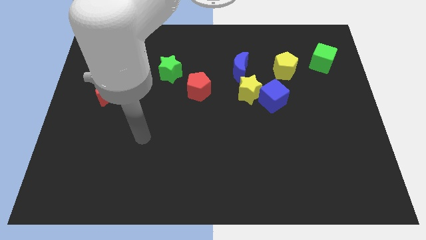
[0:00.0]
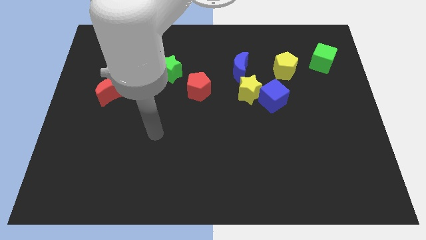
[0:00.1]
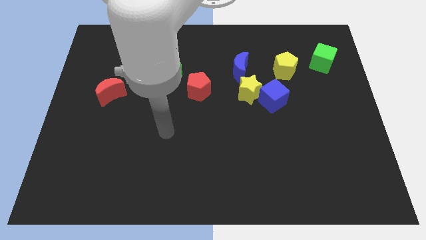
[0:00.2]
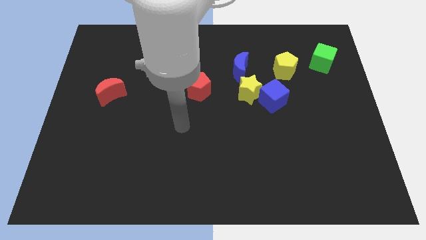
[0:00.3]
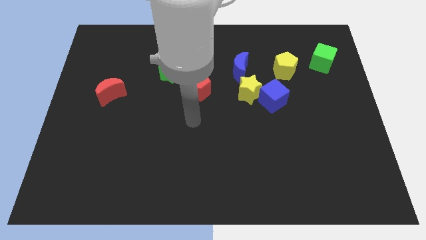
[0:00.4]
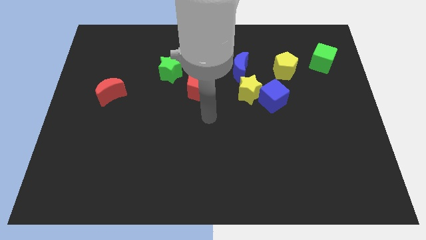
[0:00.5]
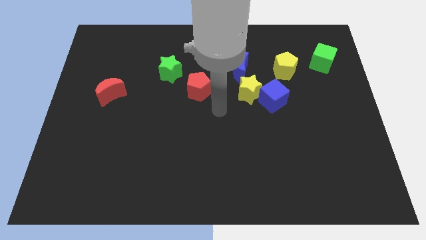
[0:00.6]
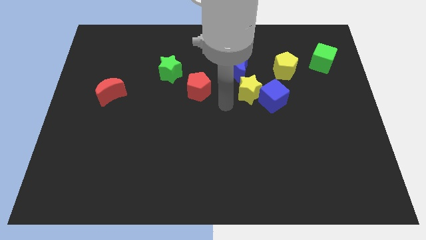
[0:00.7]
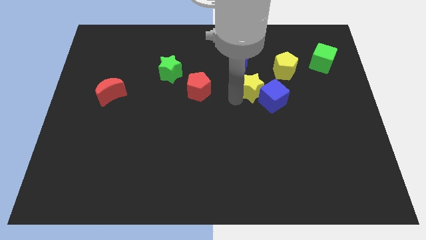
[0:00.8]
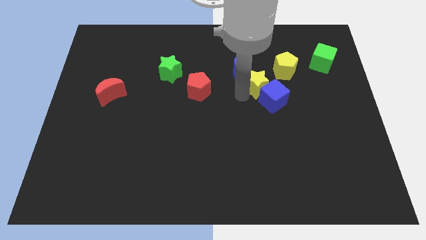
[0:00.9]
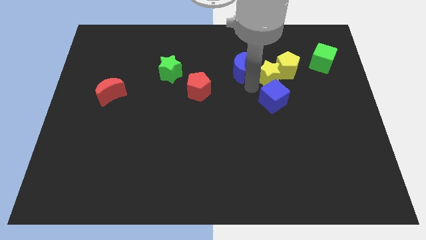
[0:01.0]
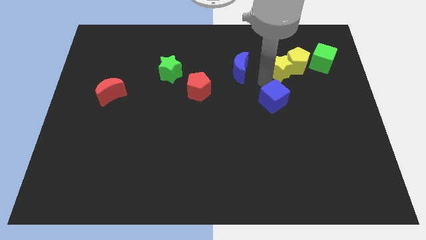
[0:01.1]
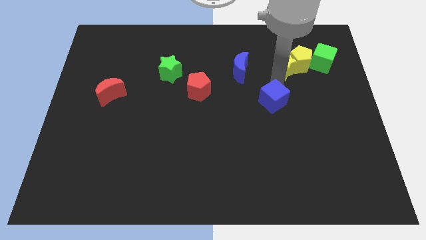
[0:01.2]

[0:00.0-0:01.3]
pull the blue cube apart from the yellow star

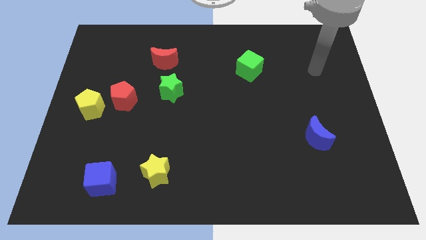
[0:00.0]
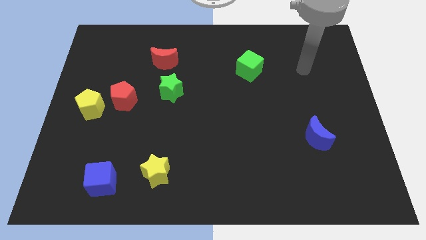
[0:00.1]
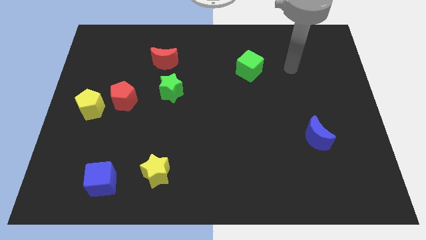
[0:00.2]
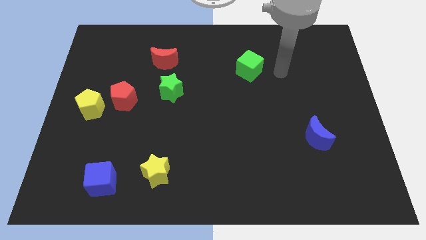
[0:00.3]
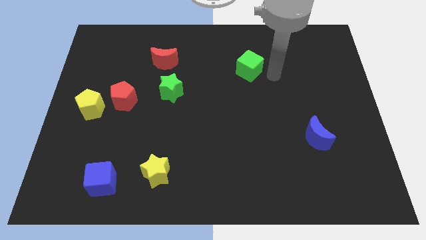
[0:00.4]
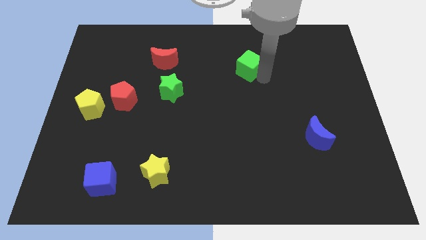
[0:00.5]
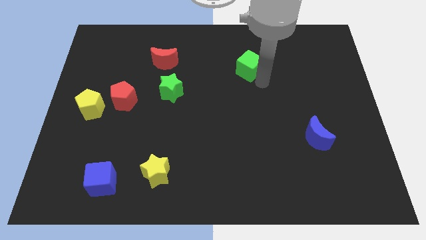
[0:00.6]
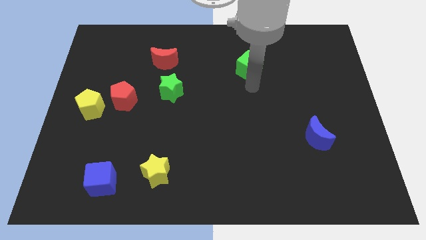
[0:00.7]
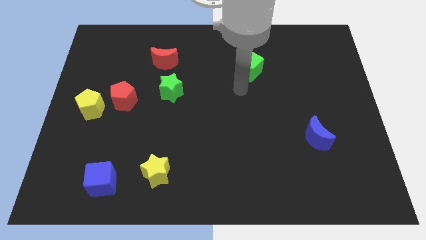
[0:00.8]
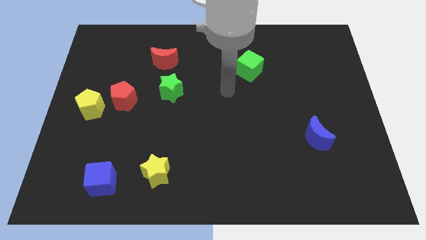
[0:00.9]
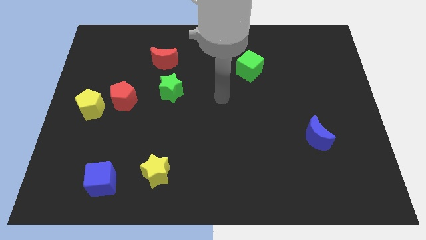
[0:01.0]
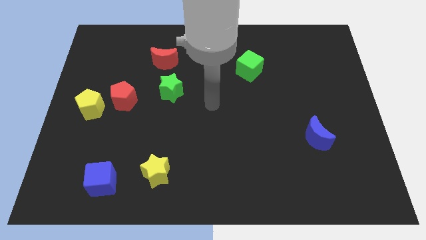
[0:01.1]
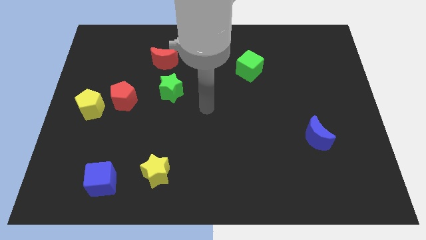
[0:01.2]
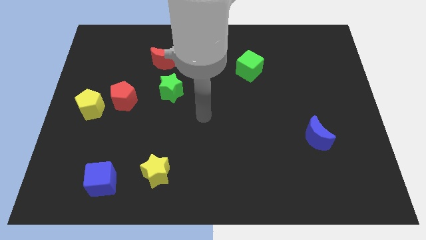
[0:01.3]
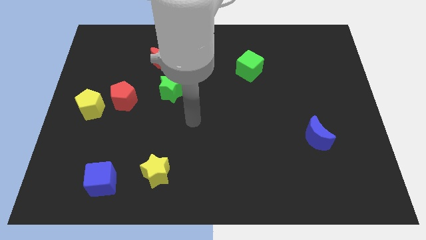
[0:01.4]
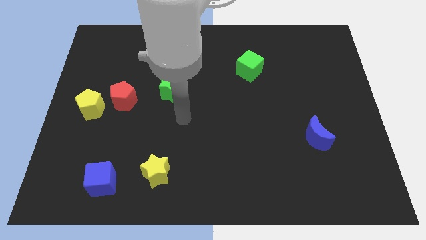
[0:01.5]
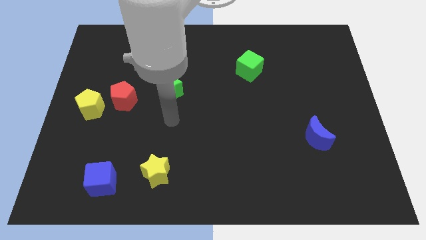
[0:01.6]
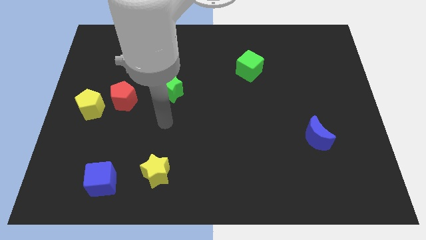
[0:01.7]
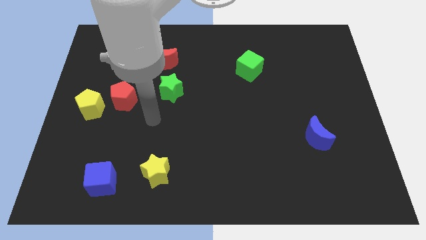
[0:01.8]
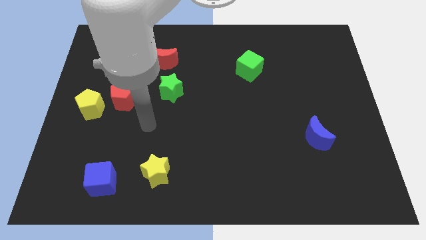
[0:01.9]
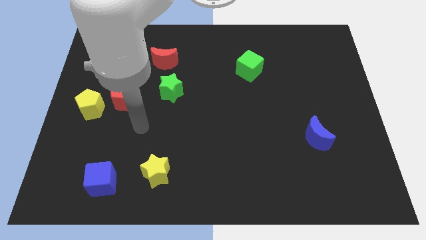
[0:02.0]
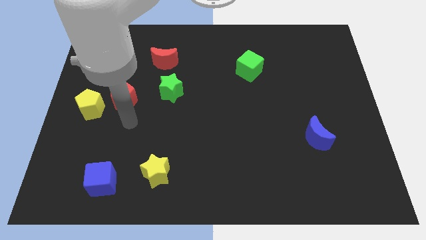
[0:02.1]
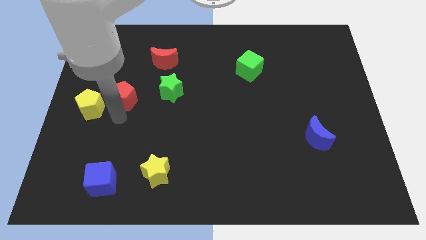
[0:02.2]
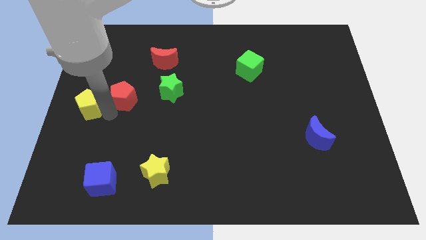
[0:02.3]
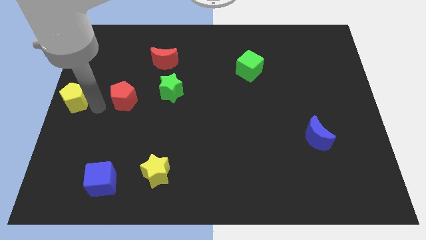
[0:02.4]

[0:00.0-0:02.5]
pull the red pentagon apart from the yellow pentagon

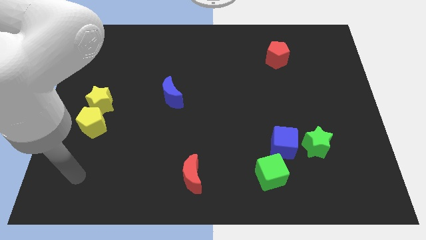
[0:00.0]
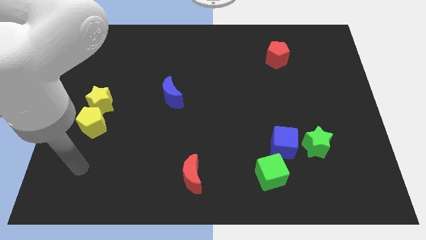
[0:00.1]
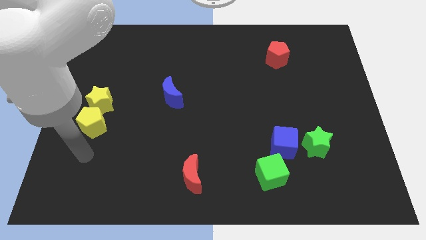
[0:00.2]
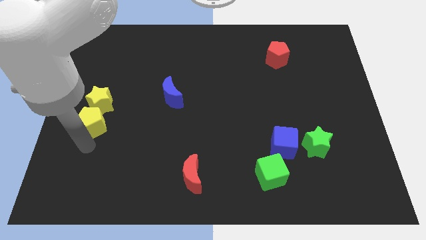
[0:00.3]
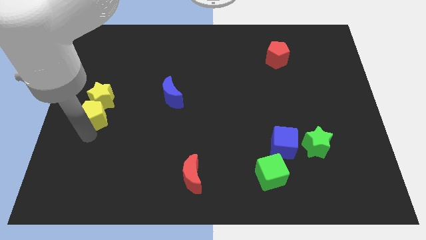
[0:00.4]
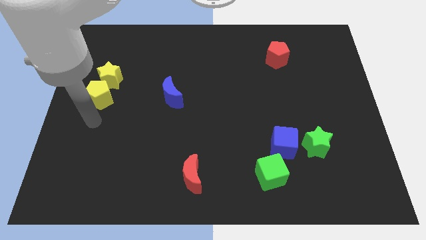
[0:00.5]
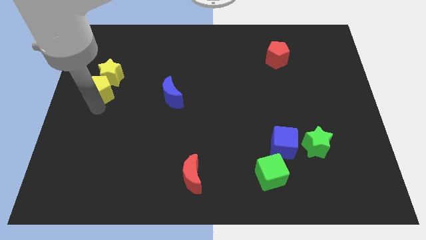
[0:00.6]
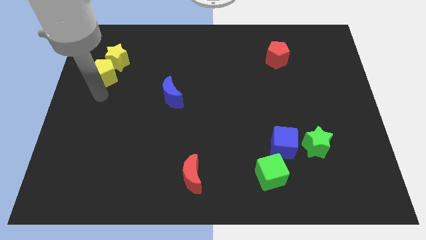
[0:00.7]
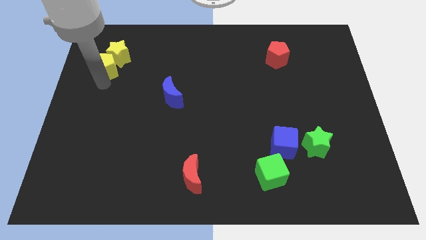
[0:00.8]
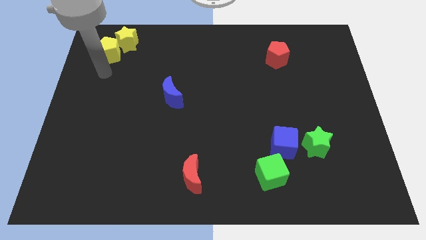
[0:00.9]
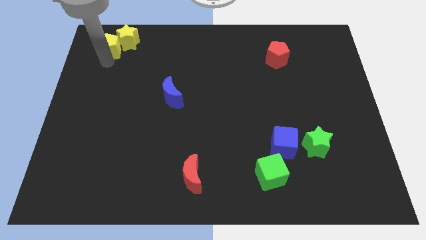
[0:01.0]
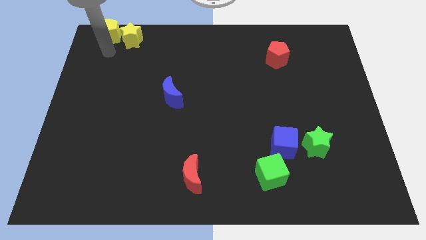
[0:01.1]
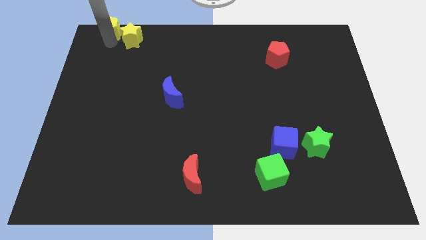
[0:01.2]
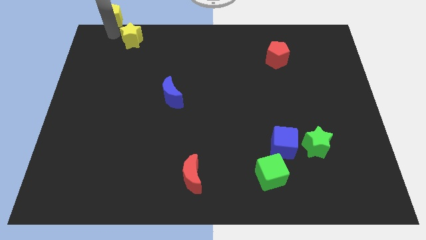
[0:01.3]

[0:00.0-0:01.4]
move the yellow star away from the yellow pentagon

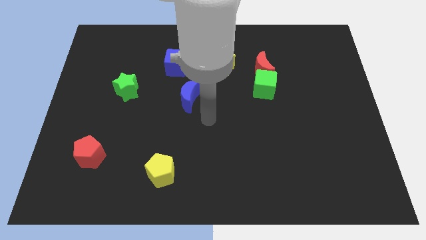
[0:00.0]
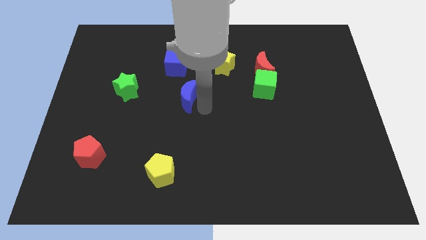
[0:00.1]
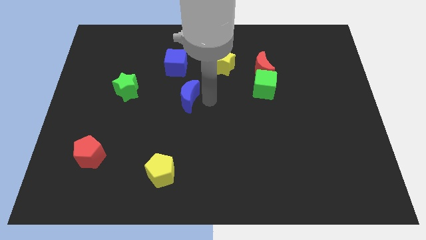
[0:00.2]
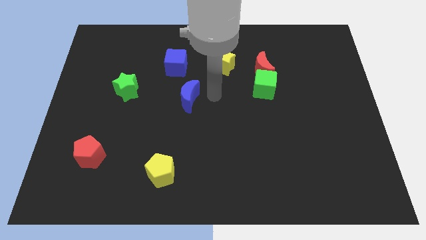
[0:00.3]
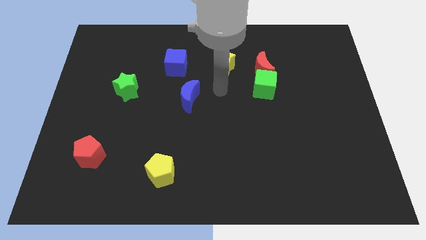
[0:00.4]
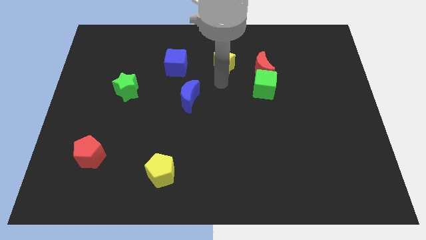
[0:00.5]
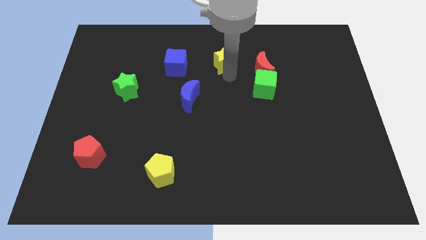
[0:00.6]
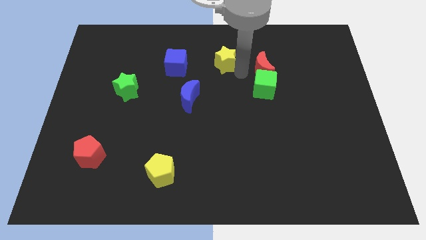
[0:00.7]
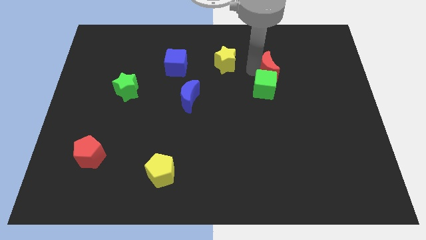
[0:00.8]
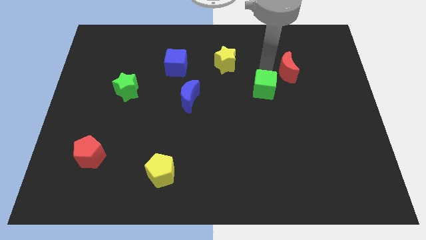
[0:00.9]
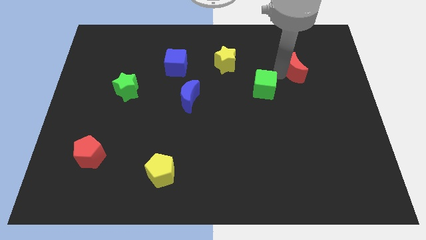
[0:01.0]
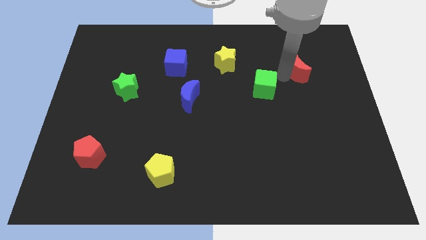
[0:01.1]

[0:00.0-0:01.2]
move the green cube away from the red moon

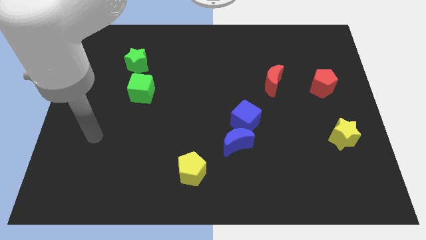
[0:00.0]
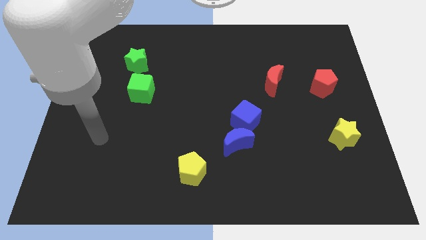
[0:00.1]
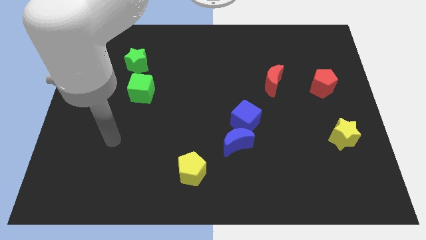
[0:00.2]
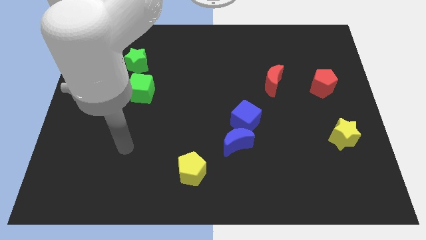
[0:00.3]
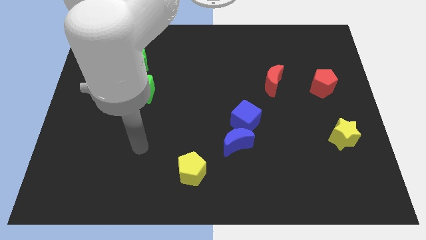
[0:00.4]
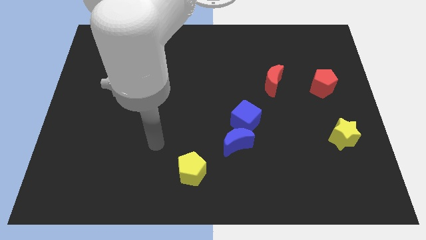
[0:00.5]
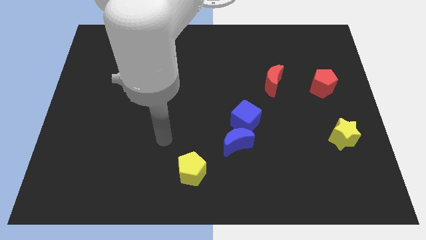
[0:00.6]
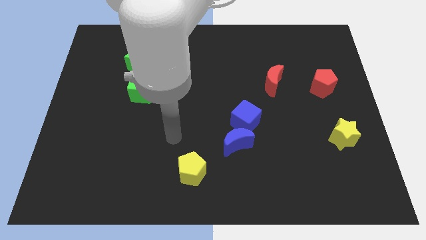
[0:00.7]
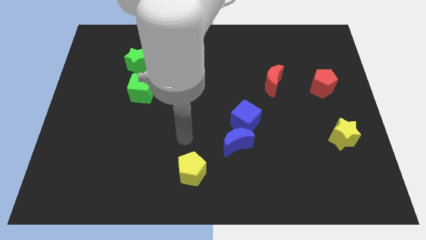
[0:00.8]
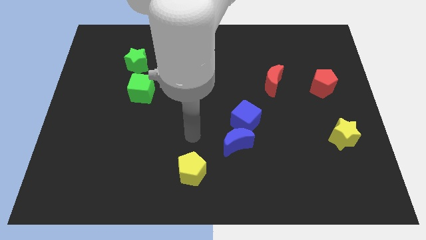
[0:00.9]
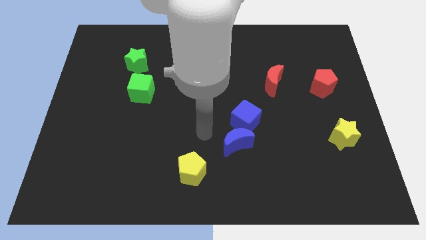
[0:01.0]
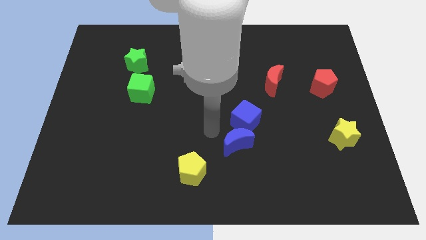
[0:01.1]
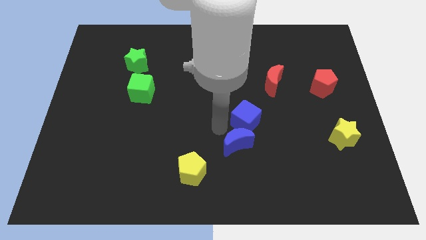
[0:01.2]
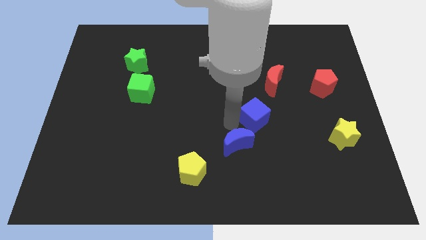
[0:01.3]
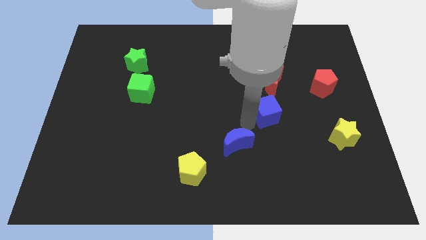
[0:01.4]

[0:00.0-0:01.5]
pull the blue moon apart from the blue cube

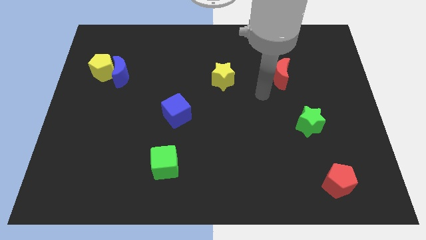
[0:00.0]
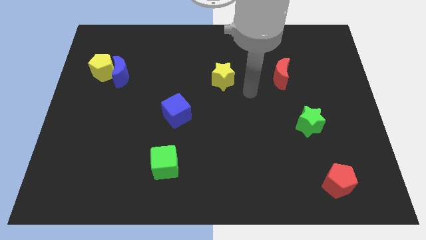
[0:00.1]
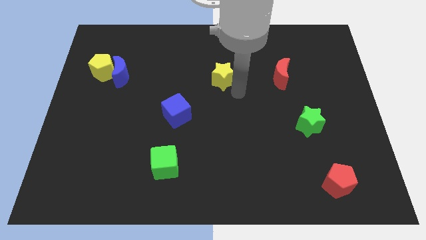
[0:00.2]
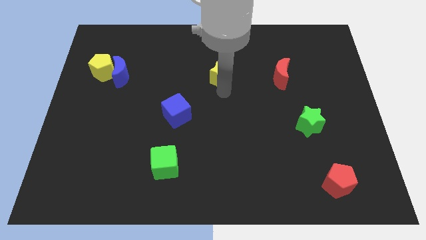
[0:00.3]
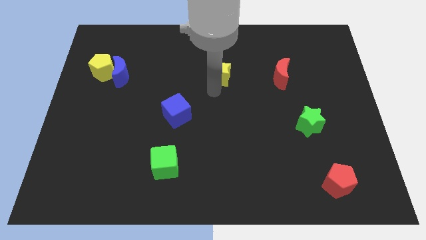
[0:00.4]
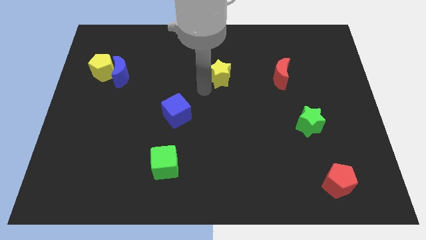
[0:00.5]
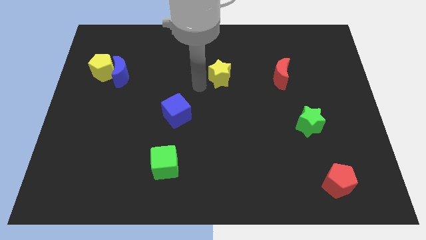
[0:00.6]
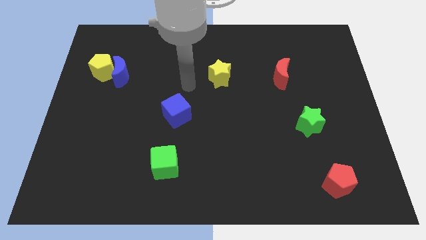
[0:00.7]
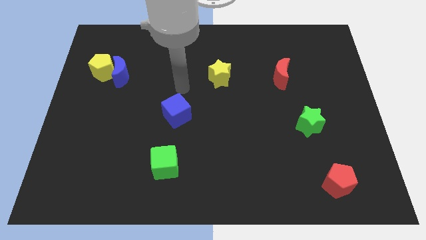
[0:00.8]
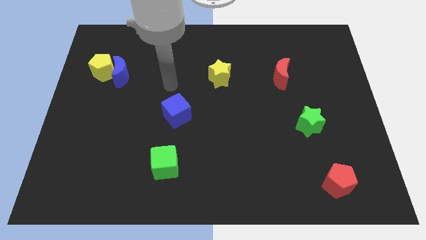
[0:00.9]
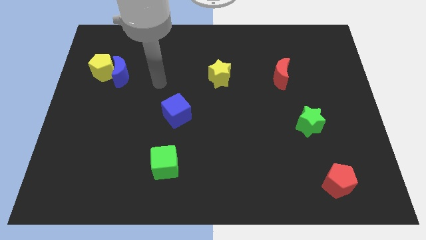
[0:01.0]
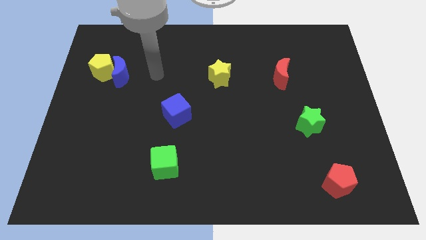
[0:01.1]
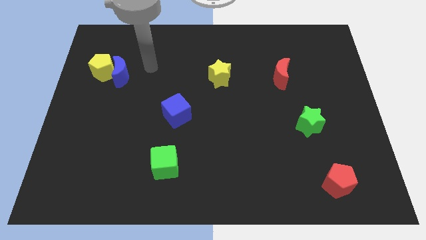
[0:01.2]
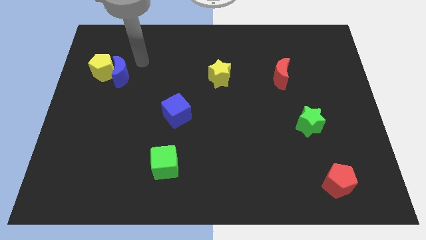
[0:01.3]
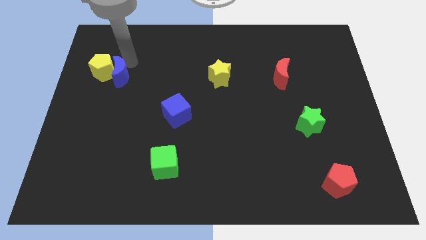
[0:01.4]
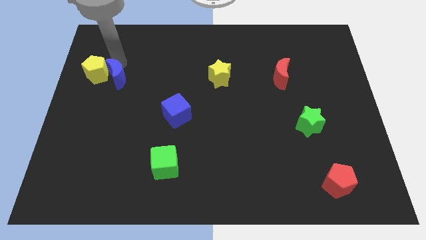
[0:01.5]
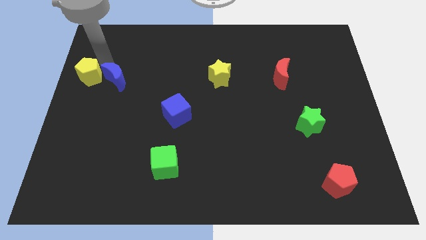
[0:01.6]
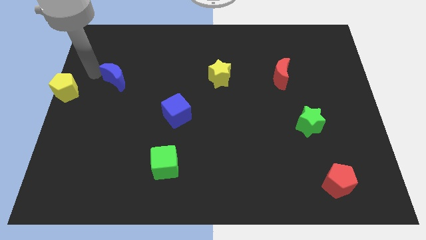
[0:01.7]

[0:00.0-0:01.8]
separate the blue moon from the yellow pentagon
